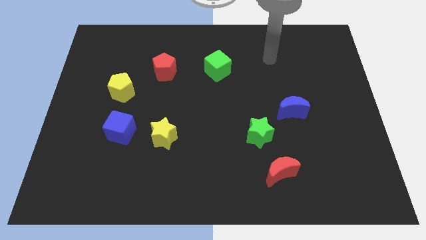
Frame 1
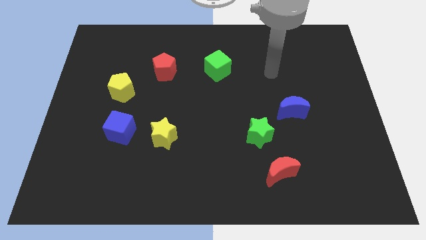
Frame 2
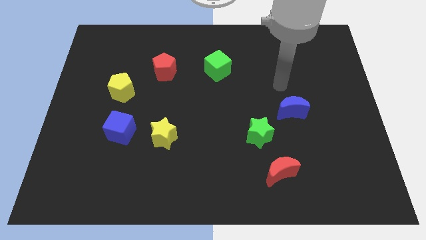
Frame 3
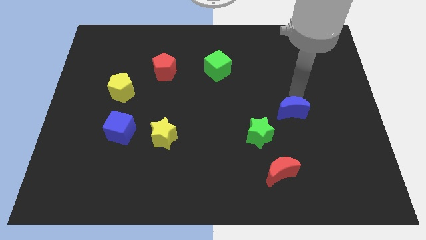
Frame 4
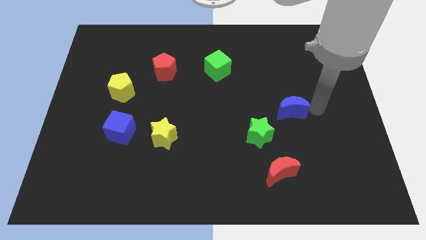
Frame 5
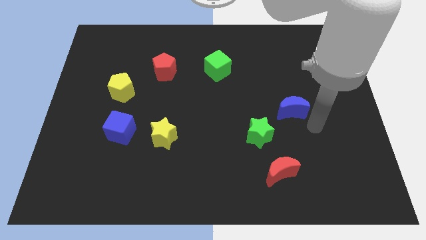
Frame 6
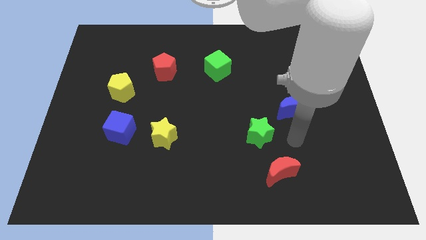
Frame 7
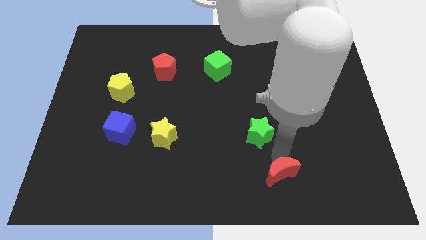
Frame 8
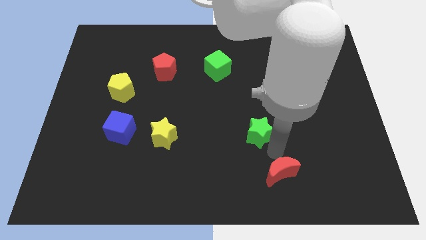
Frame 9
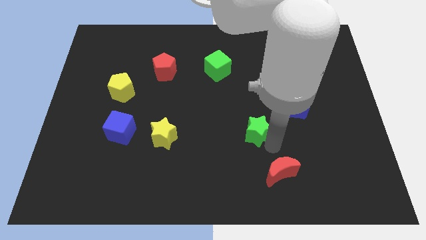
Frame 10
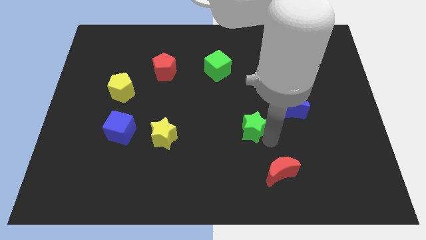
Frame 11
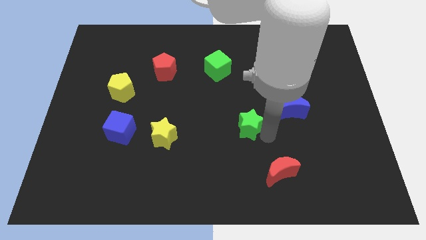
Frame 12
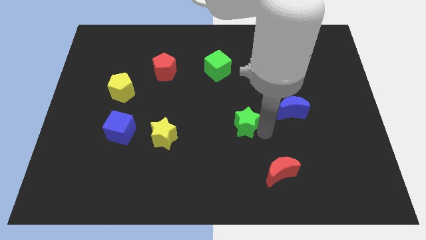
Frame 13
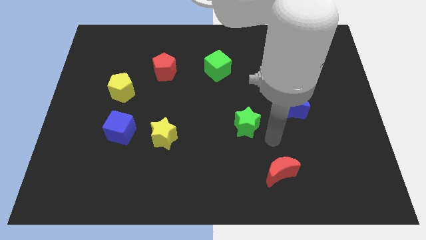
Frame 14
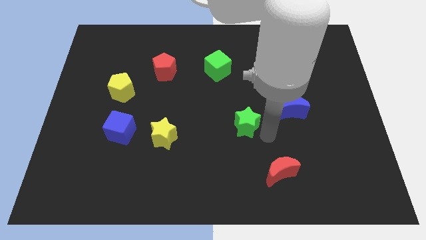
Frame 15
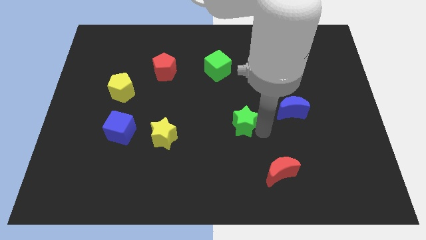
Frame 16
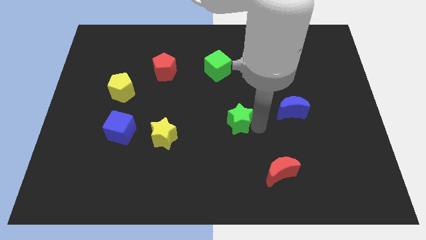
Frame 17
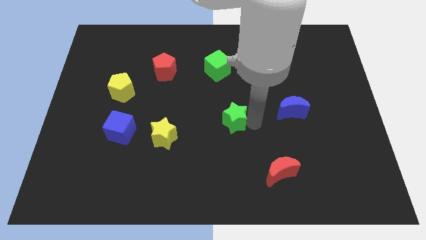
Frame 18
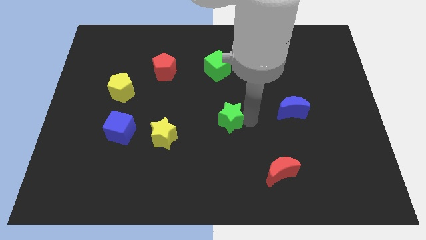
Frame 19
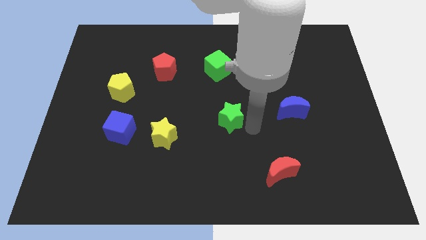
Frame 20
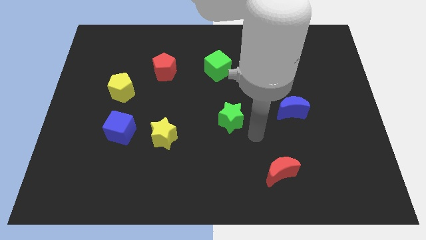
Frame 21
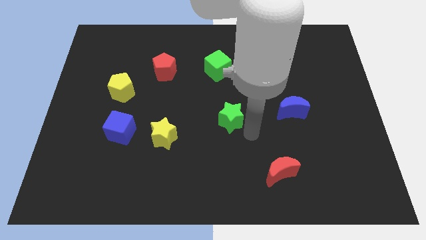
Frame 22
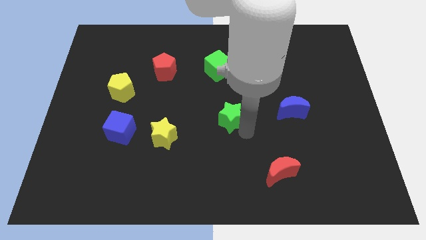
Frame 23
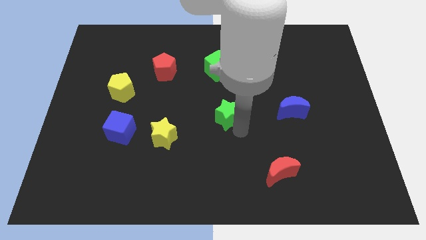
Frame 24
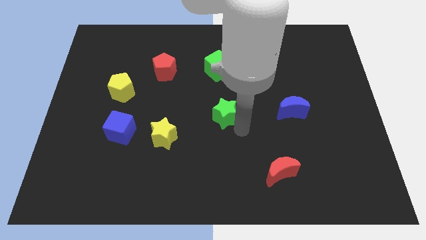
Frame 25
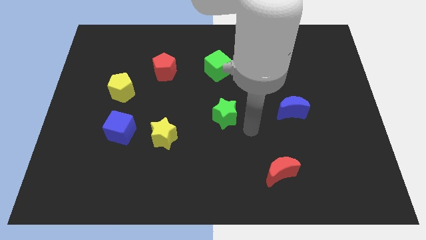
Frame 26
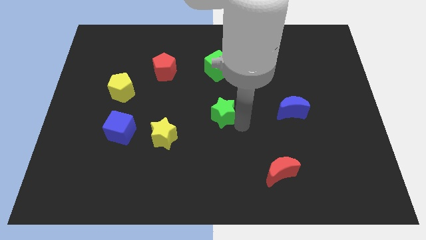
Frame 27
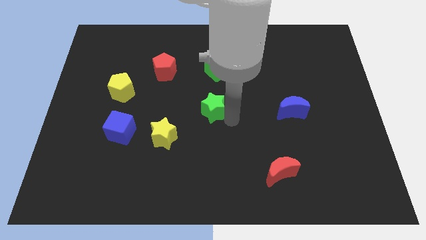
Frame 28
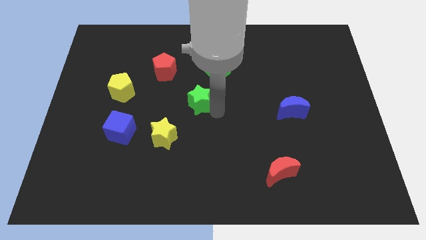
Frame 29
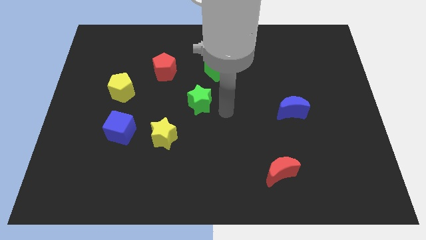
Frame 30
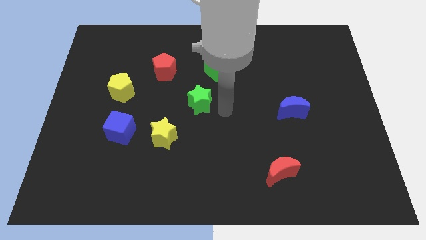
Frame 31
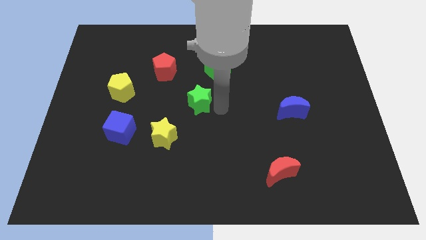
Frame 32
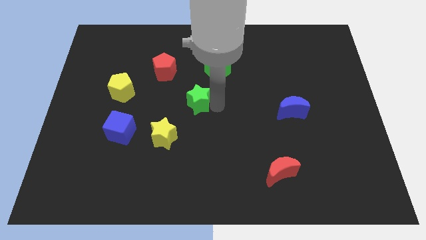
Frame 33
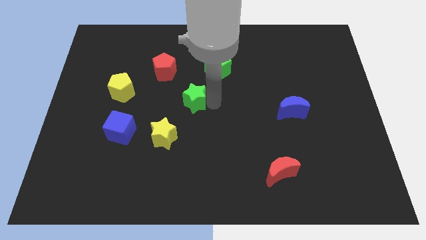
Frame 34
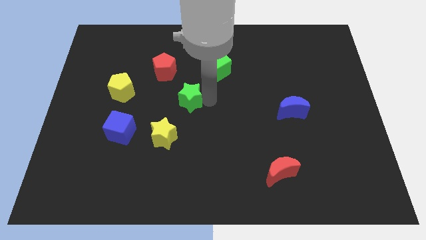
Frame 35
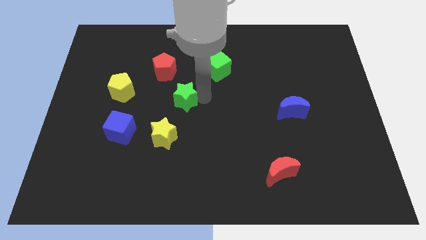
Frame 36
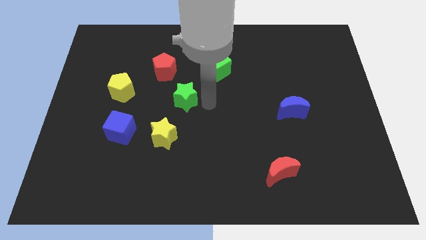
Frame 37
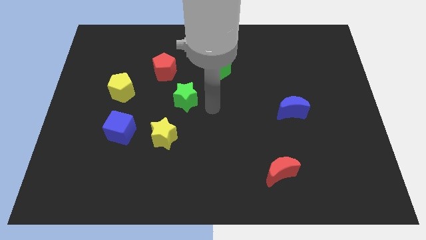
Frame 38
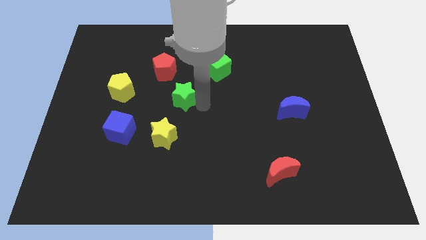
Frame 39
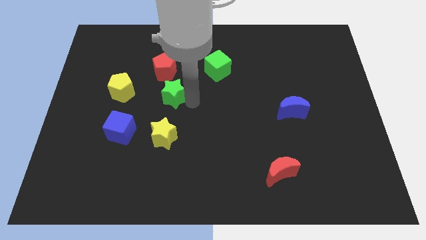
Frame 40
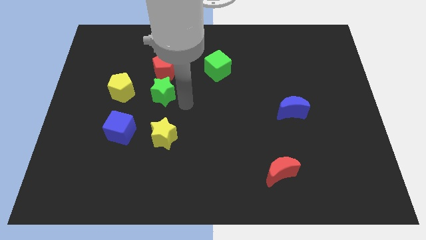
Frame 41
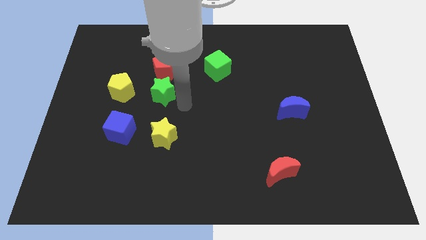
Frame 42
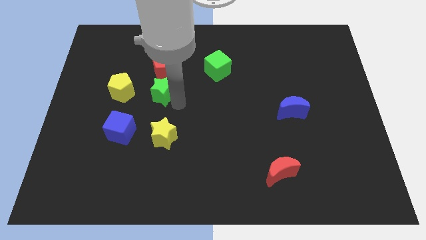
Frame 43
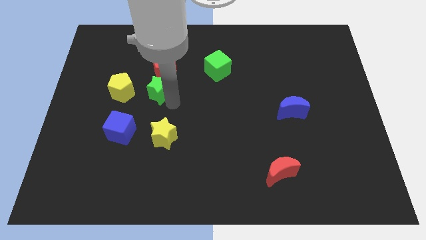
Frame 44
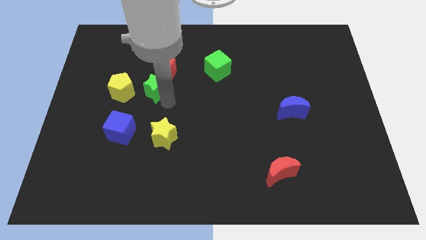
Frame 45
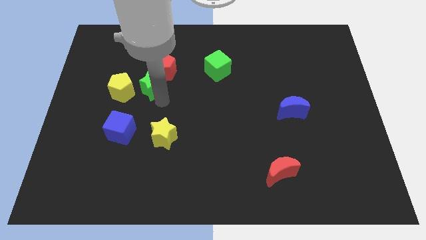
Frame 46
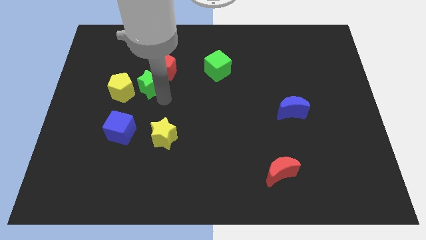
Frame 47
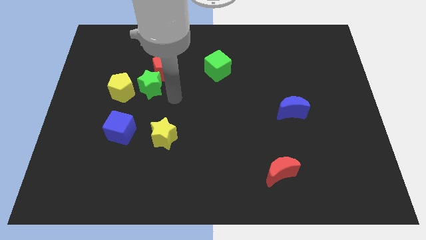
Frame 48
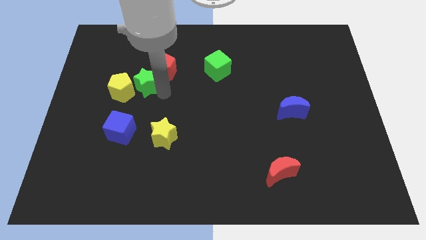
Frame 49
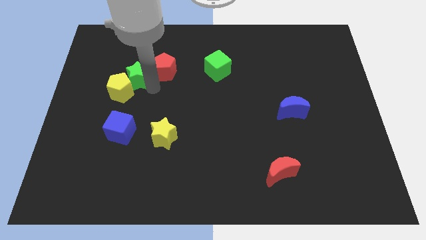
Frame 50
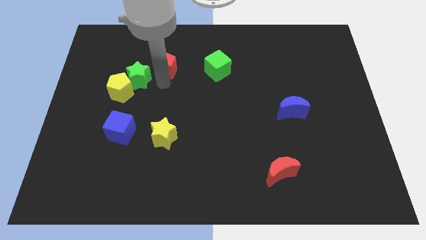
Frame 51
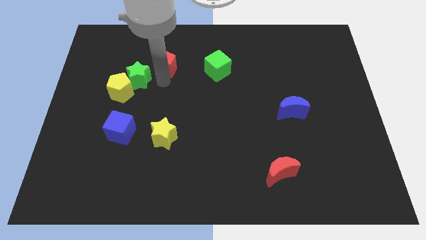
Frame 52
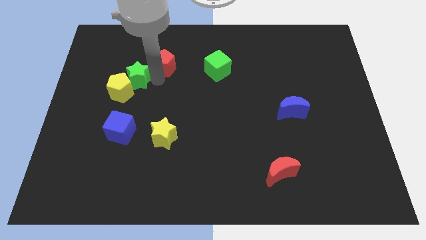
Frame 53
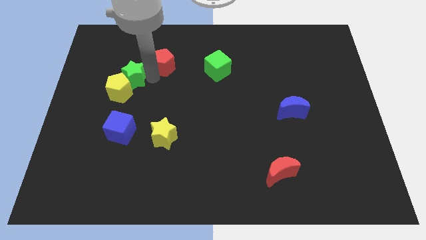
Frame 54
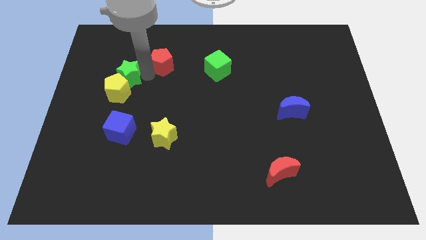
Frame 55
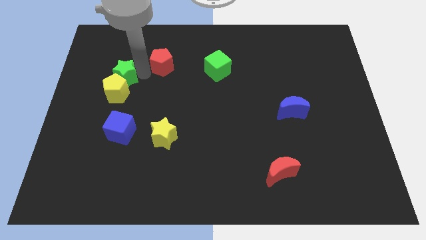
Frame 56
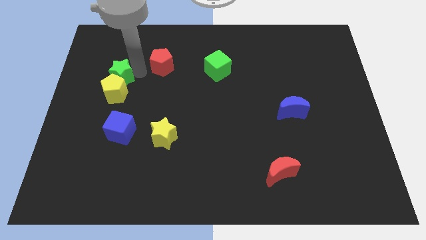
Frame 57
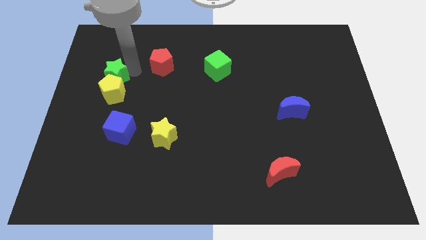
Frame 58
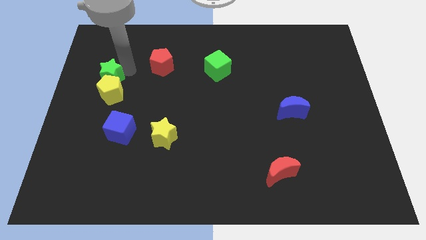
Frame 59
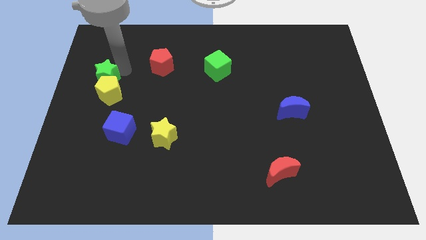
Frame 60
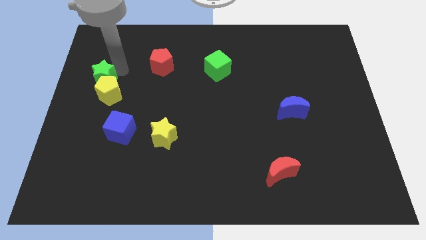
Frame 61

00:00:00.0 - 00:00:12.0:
put the green star to the center left
